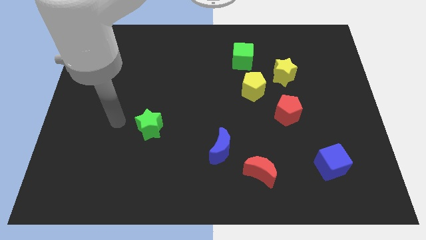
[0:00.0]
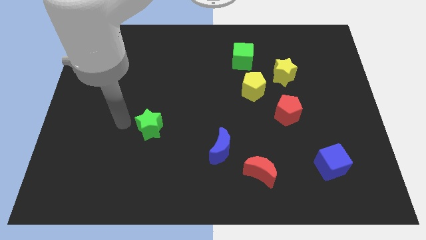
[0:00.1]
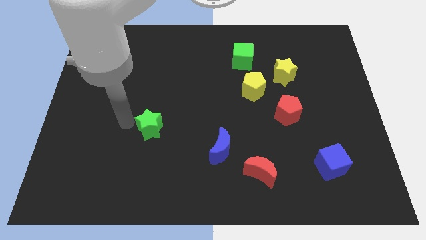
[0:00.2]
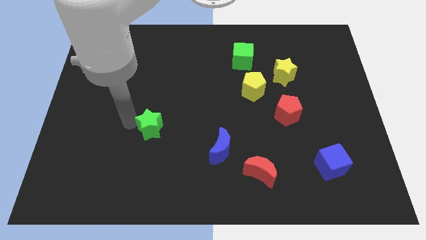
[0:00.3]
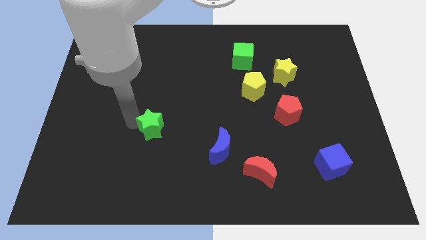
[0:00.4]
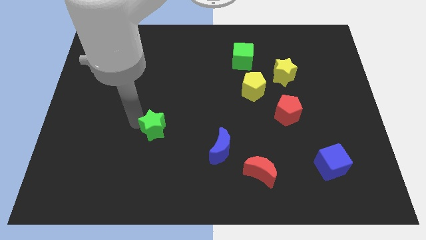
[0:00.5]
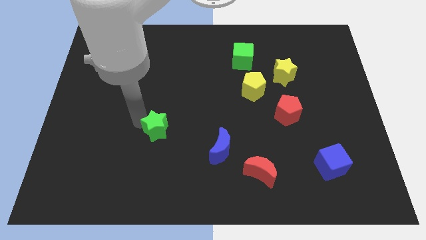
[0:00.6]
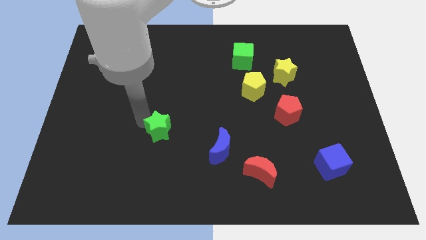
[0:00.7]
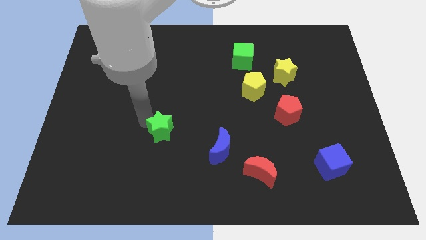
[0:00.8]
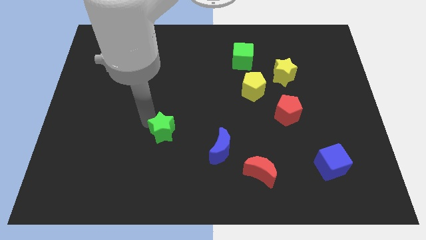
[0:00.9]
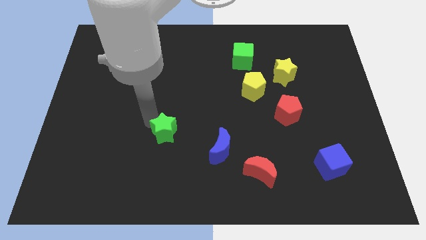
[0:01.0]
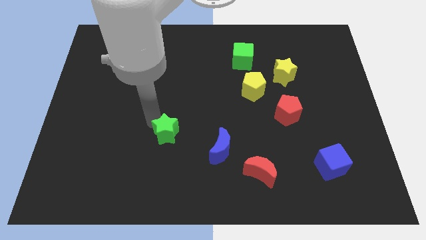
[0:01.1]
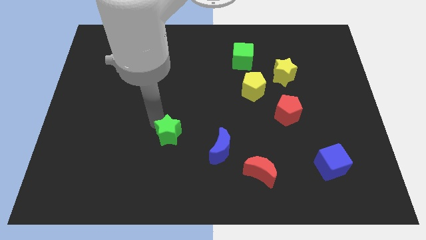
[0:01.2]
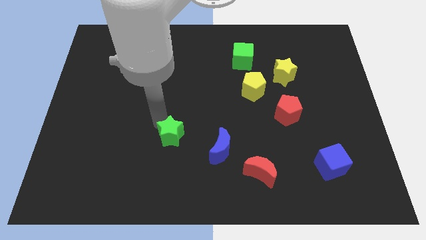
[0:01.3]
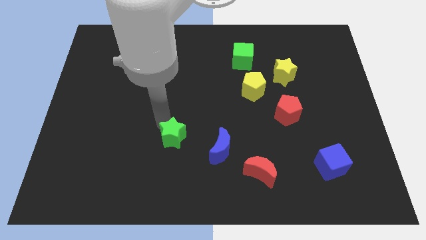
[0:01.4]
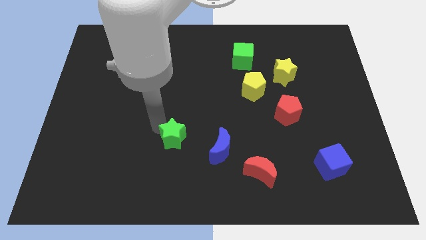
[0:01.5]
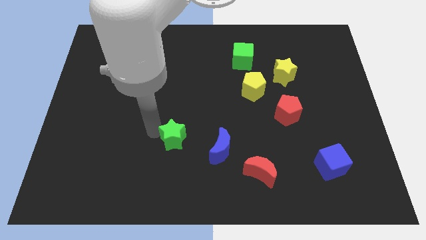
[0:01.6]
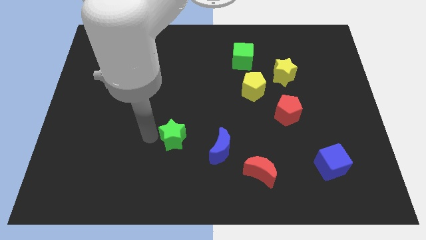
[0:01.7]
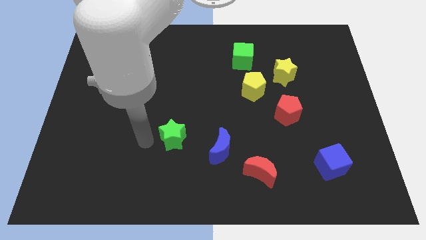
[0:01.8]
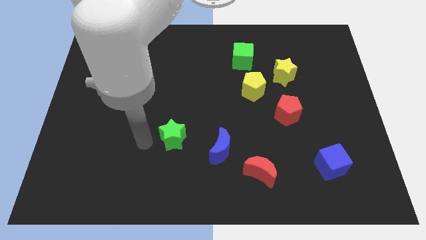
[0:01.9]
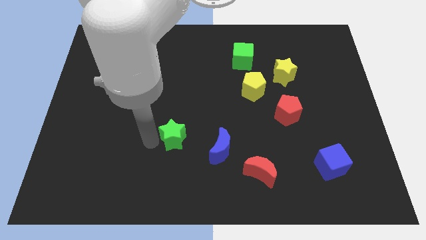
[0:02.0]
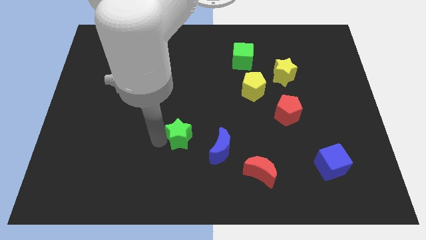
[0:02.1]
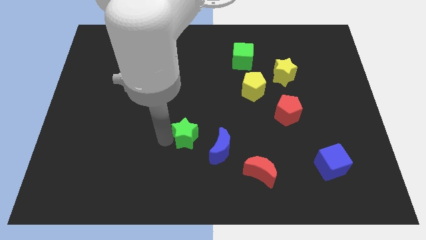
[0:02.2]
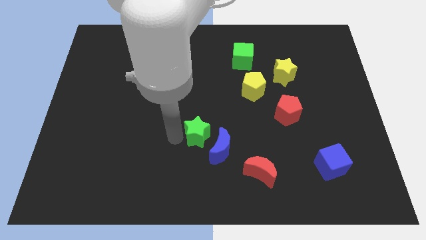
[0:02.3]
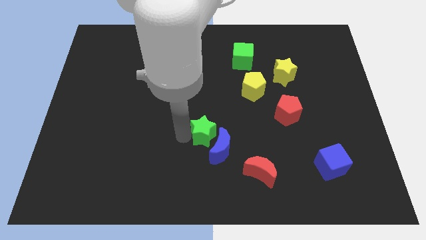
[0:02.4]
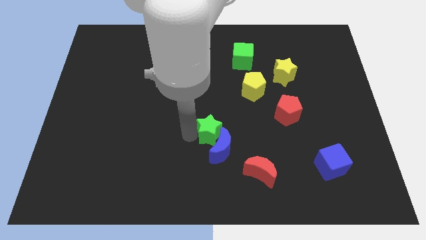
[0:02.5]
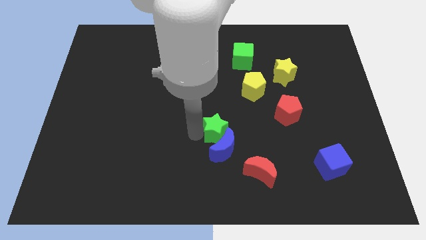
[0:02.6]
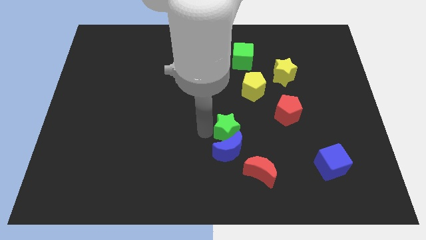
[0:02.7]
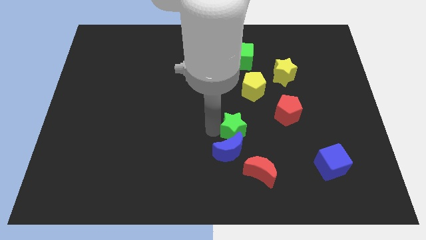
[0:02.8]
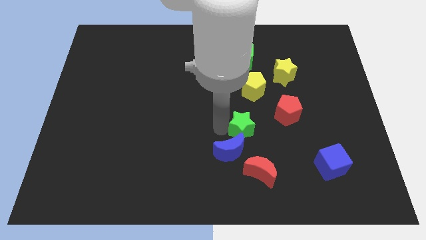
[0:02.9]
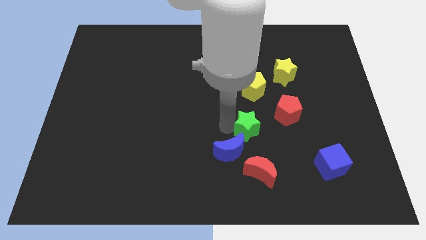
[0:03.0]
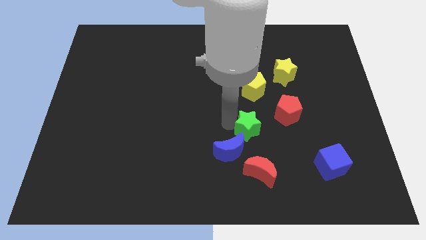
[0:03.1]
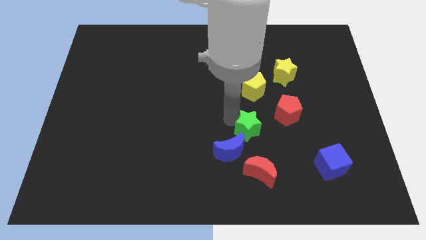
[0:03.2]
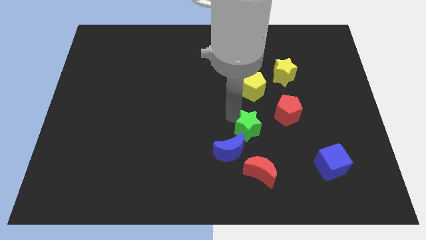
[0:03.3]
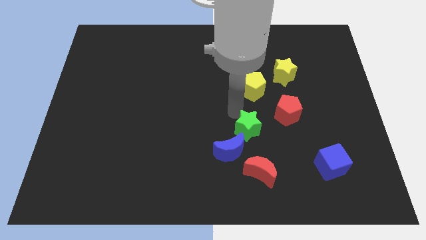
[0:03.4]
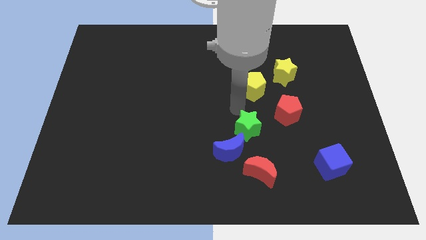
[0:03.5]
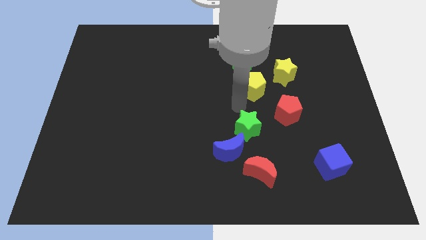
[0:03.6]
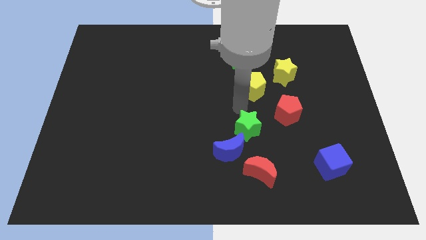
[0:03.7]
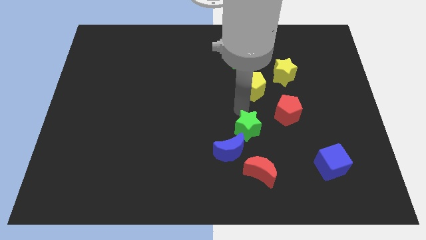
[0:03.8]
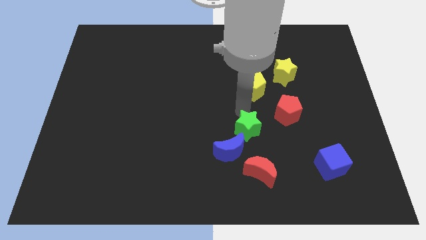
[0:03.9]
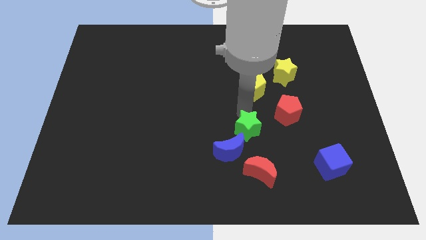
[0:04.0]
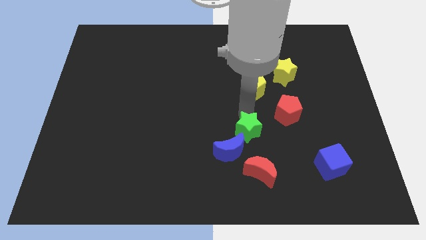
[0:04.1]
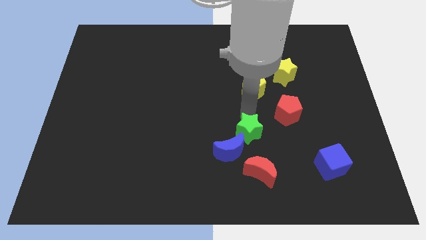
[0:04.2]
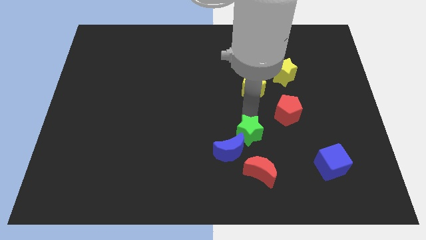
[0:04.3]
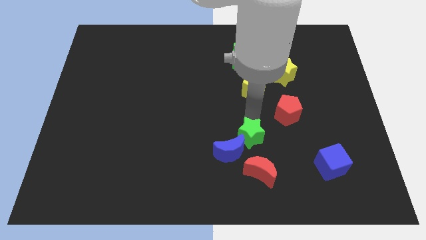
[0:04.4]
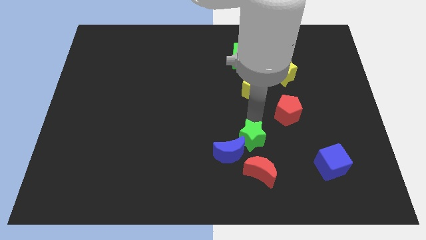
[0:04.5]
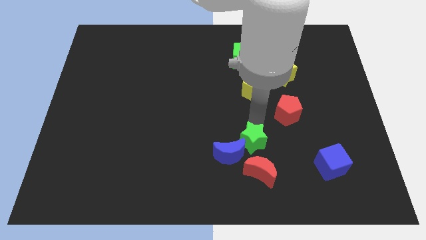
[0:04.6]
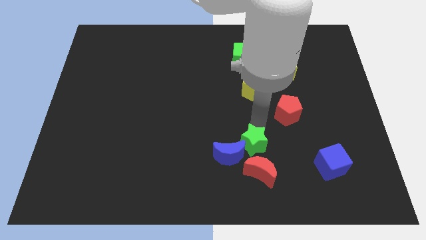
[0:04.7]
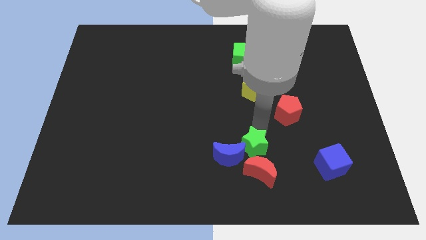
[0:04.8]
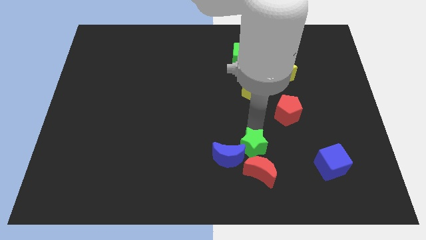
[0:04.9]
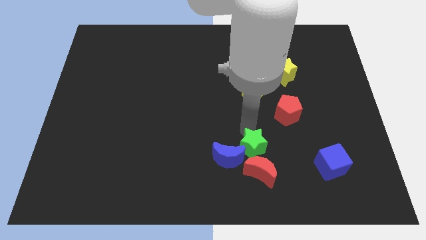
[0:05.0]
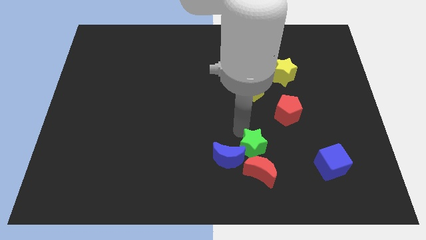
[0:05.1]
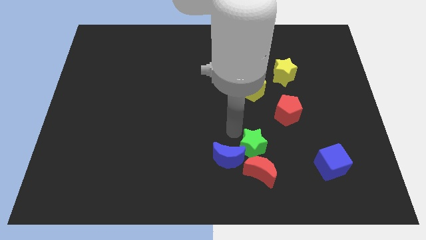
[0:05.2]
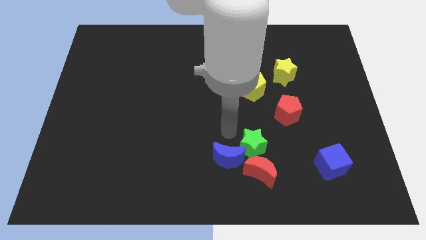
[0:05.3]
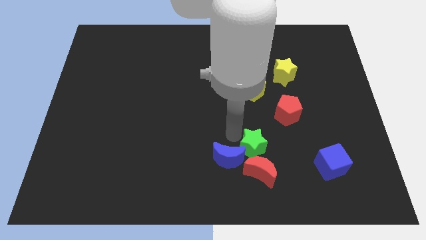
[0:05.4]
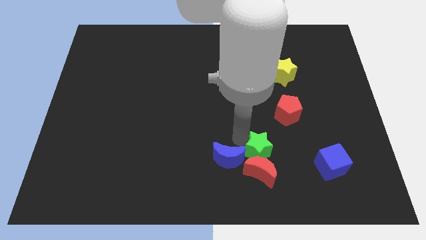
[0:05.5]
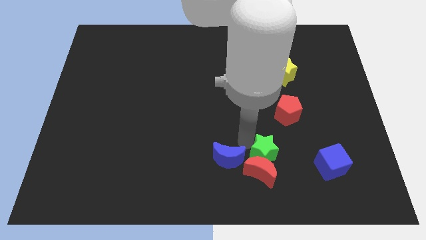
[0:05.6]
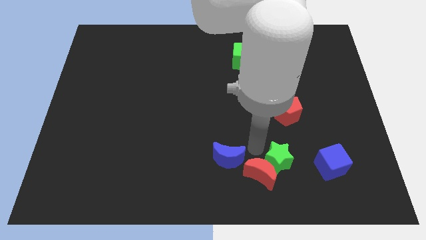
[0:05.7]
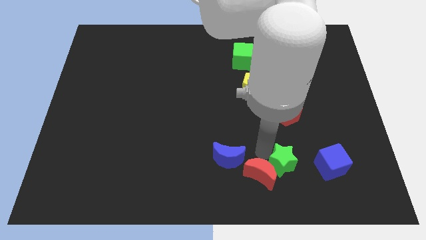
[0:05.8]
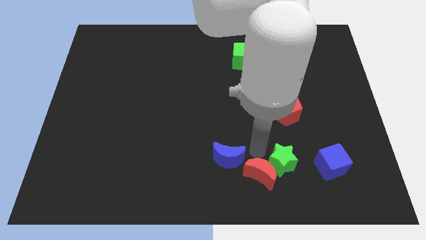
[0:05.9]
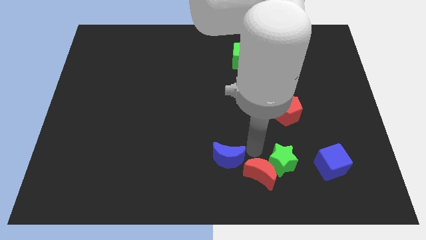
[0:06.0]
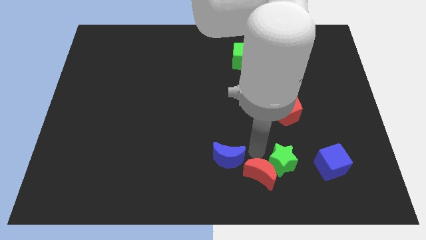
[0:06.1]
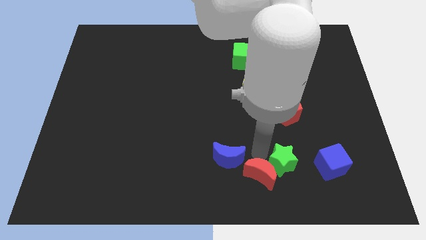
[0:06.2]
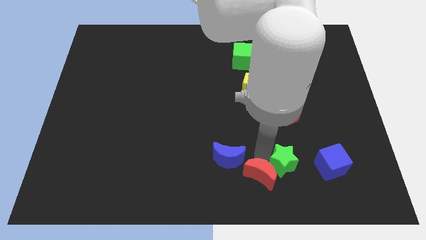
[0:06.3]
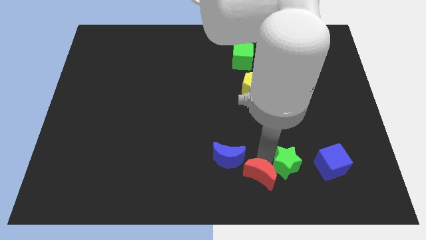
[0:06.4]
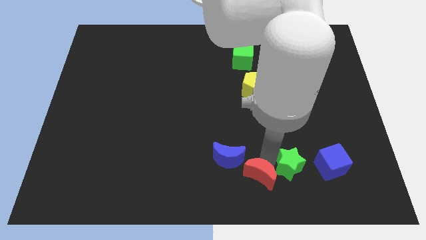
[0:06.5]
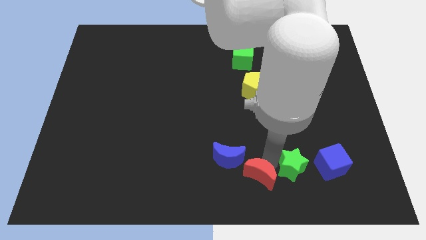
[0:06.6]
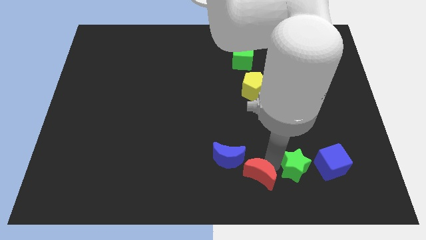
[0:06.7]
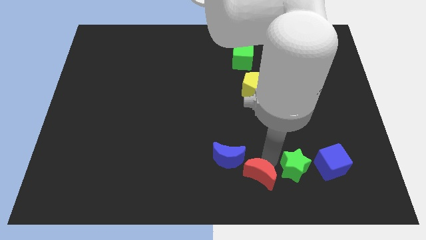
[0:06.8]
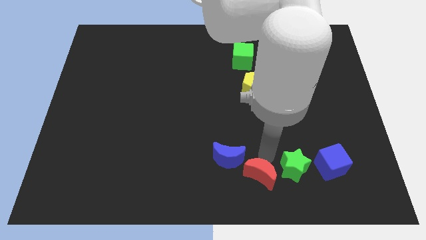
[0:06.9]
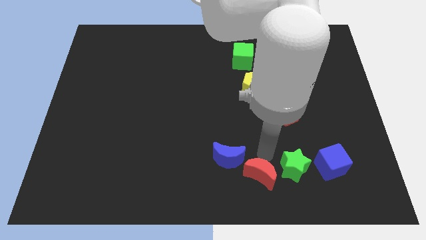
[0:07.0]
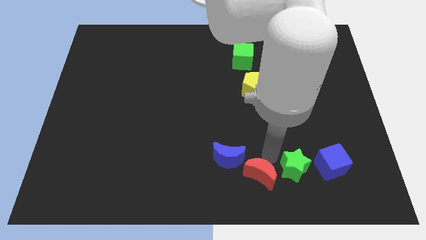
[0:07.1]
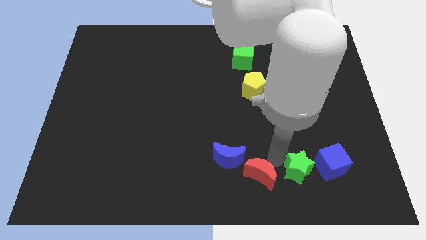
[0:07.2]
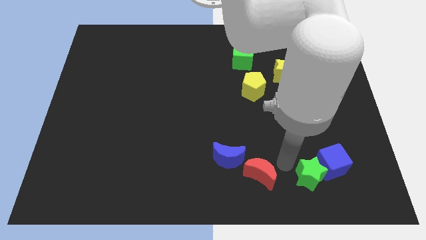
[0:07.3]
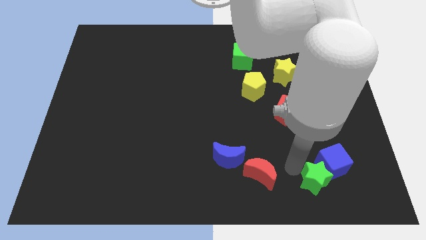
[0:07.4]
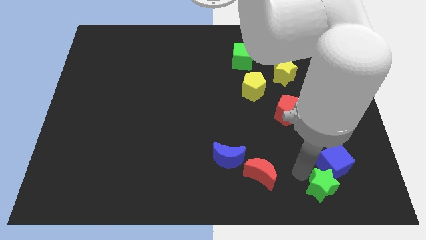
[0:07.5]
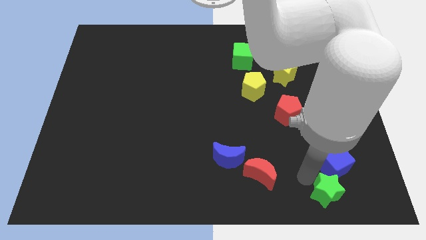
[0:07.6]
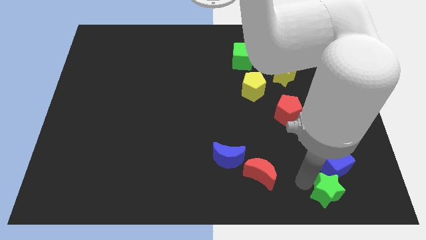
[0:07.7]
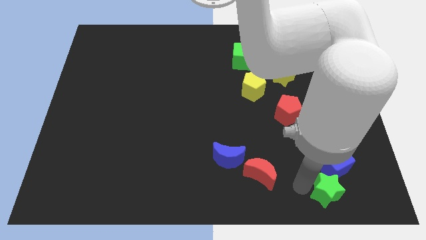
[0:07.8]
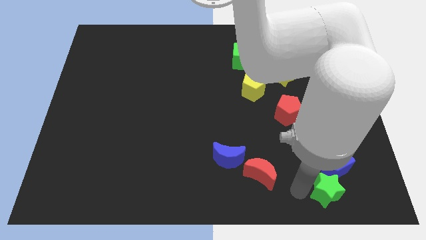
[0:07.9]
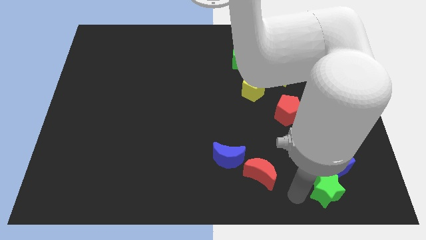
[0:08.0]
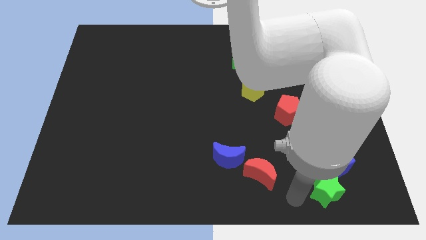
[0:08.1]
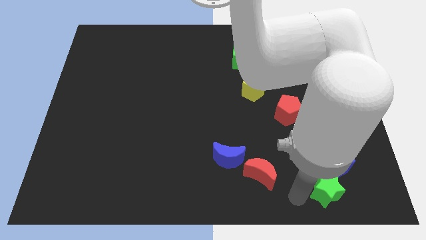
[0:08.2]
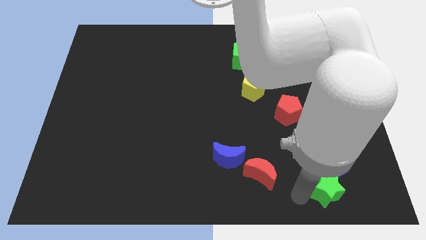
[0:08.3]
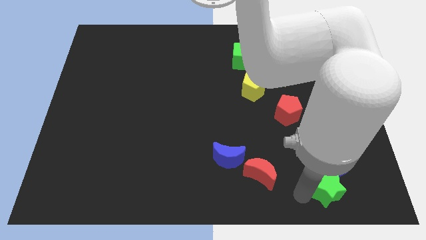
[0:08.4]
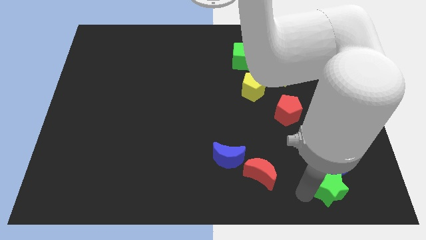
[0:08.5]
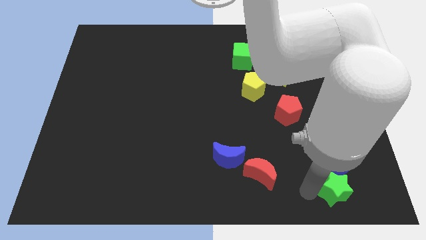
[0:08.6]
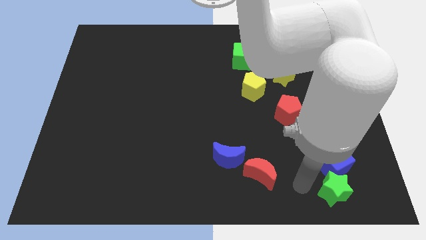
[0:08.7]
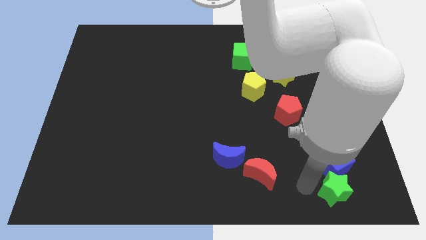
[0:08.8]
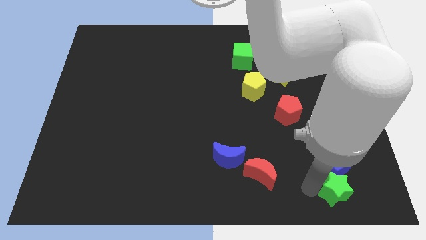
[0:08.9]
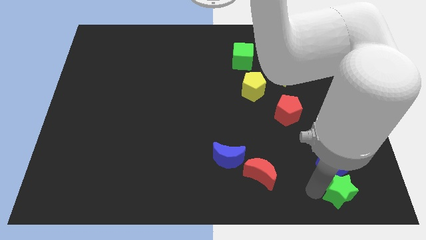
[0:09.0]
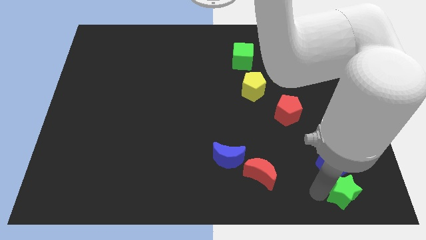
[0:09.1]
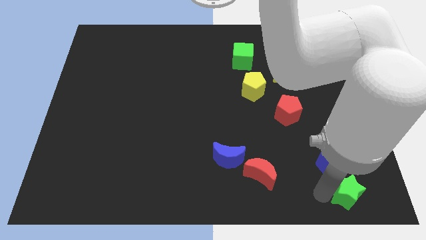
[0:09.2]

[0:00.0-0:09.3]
push the green star to the bottom right
